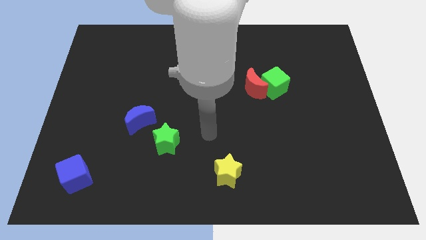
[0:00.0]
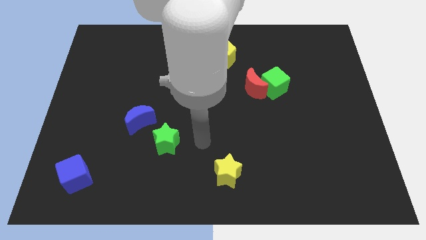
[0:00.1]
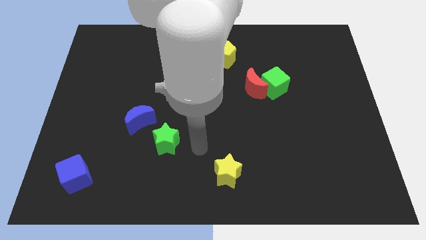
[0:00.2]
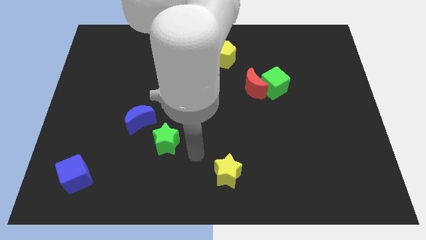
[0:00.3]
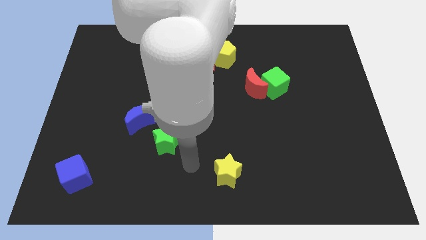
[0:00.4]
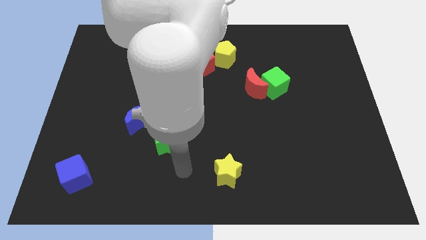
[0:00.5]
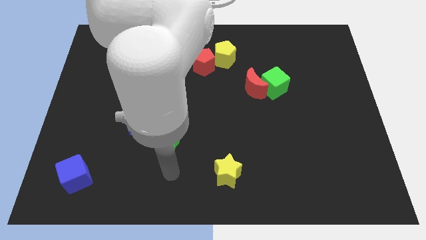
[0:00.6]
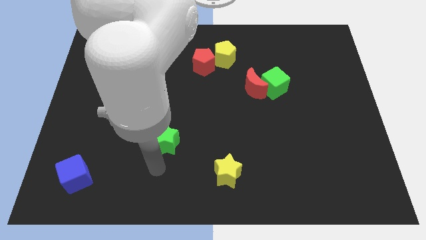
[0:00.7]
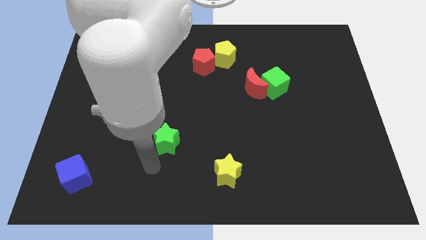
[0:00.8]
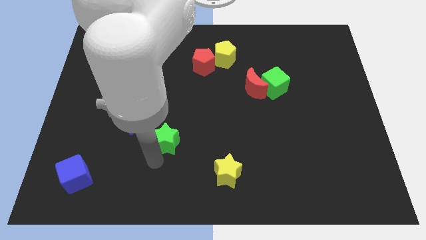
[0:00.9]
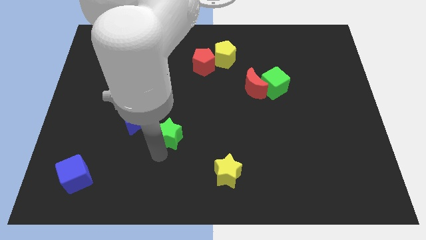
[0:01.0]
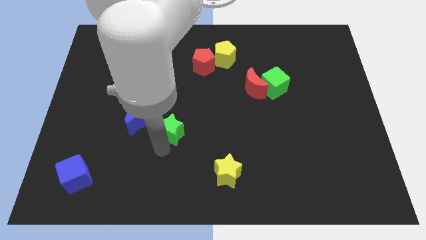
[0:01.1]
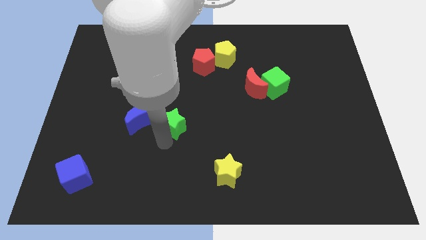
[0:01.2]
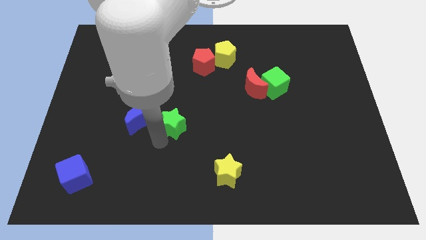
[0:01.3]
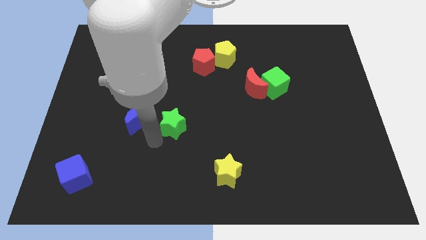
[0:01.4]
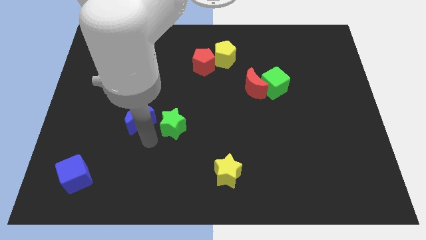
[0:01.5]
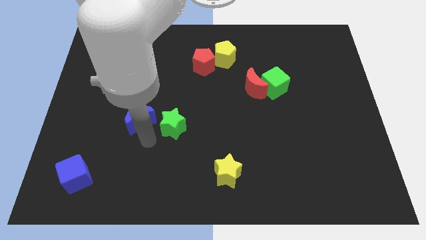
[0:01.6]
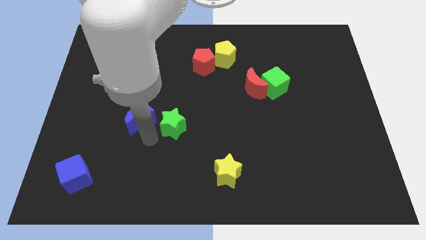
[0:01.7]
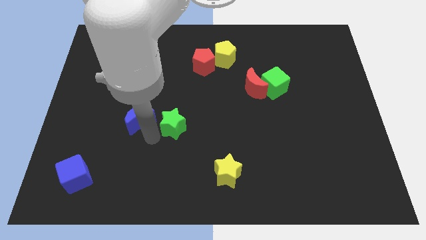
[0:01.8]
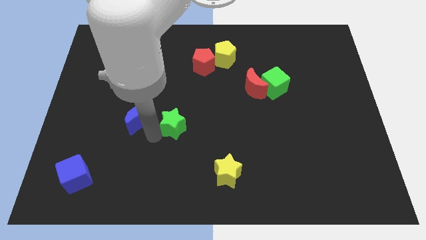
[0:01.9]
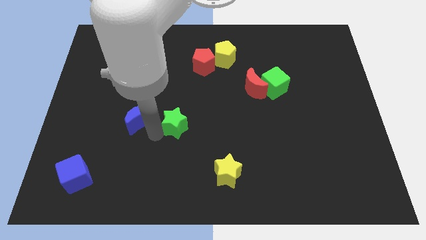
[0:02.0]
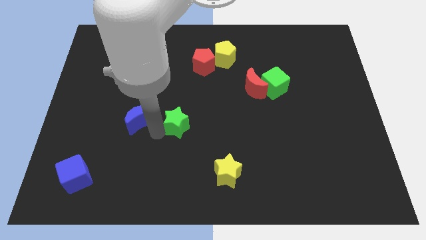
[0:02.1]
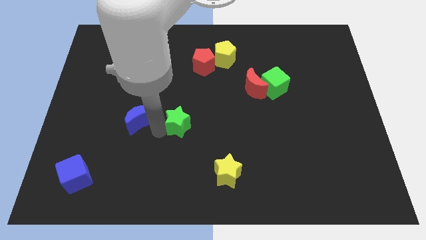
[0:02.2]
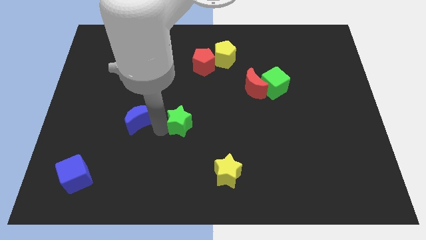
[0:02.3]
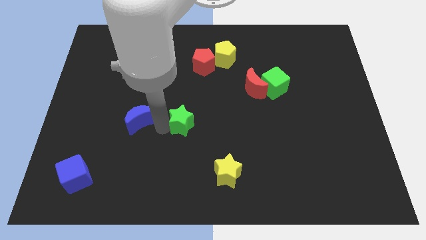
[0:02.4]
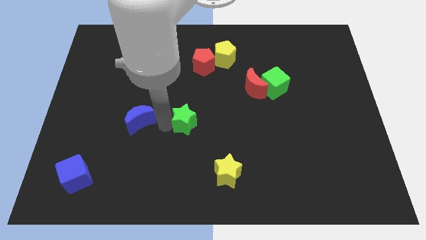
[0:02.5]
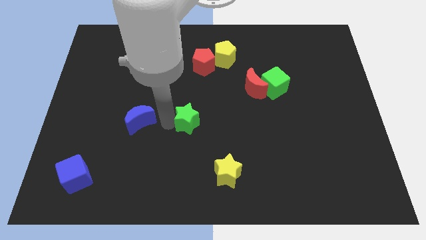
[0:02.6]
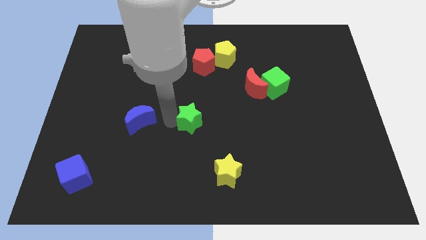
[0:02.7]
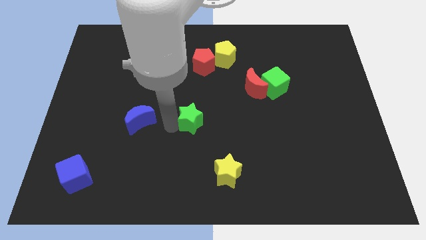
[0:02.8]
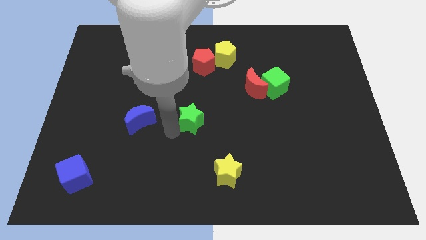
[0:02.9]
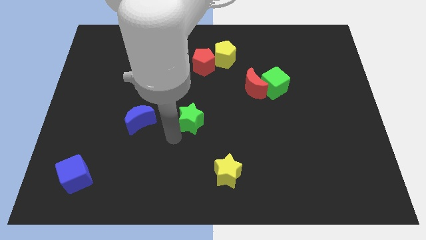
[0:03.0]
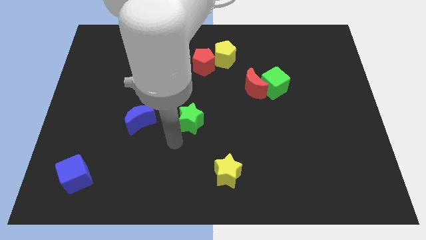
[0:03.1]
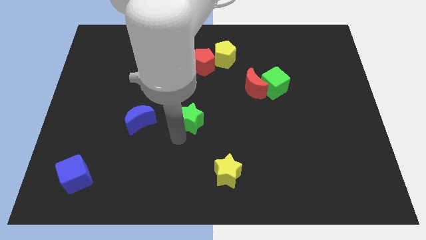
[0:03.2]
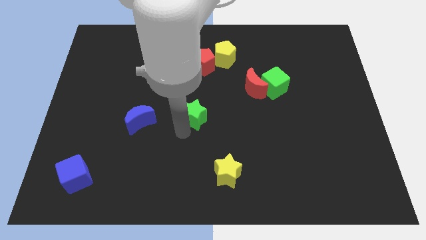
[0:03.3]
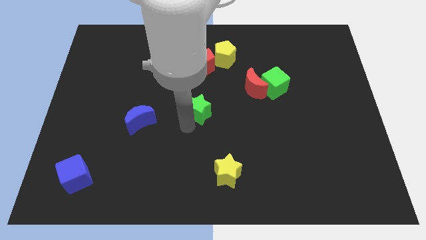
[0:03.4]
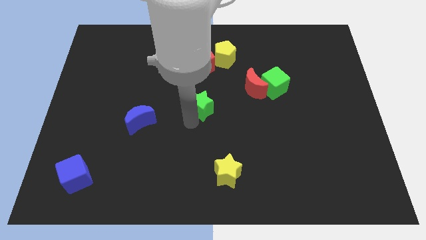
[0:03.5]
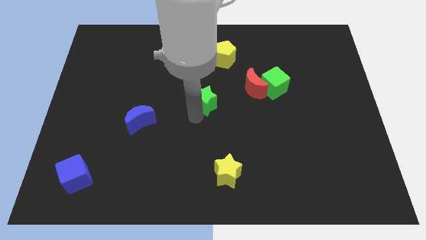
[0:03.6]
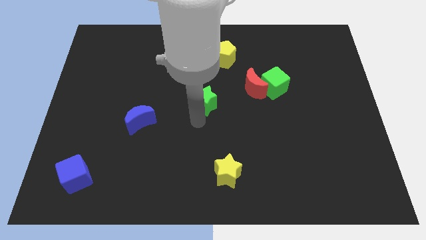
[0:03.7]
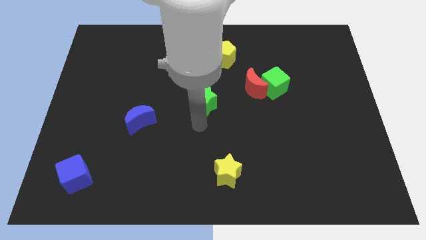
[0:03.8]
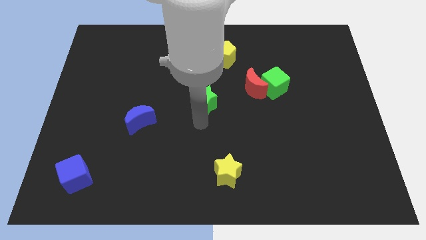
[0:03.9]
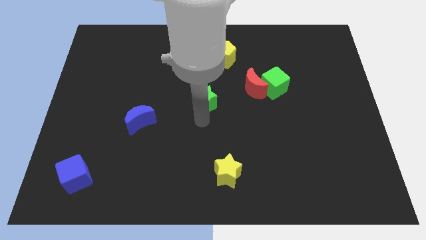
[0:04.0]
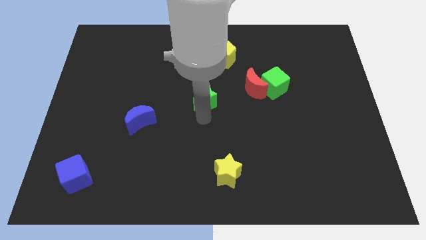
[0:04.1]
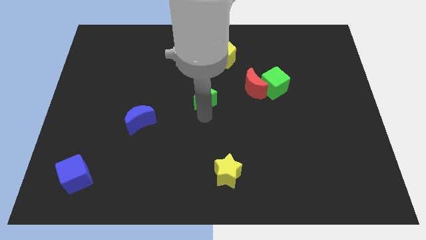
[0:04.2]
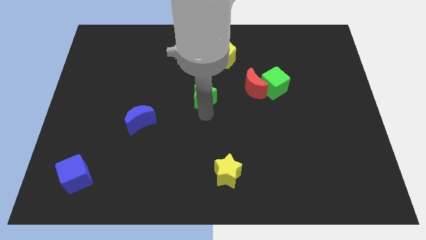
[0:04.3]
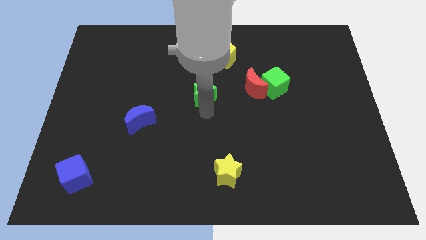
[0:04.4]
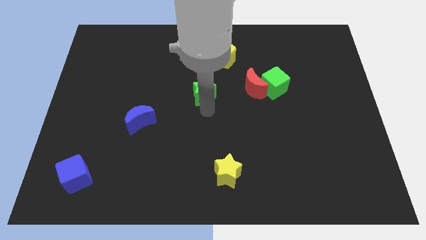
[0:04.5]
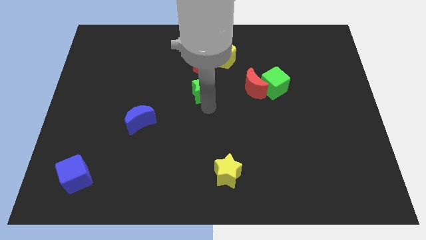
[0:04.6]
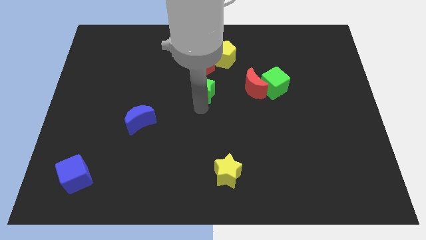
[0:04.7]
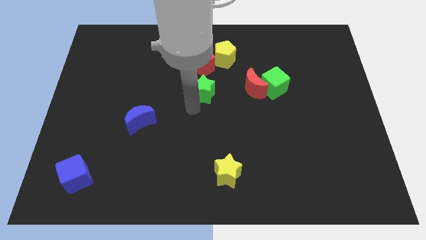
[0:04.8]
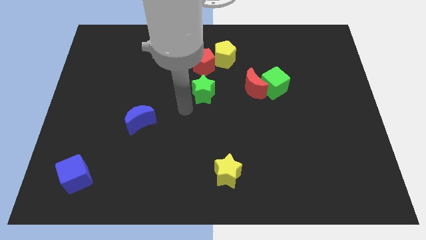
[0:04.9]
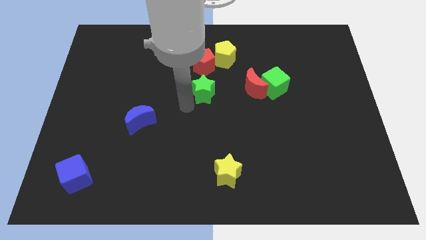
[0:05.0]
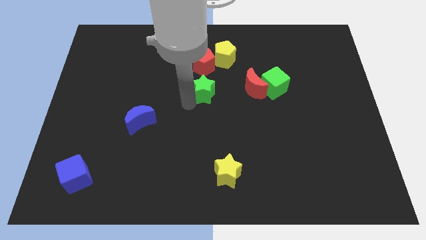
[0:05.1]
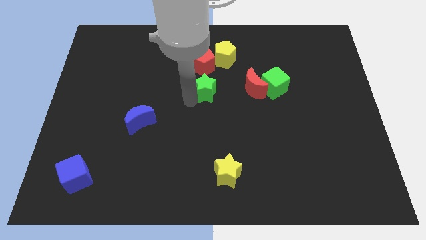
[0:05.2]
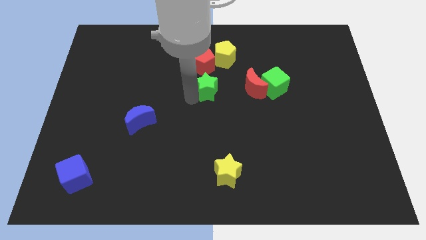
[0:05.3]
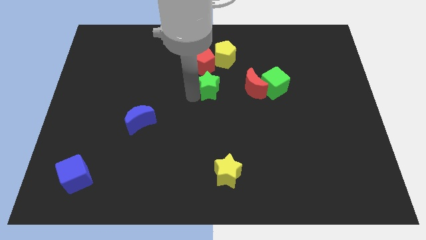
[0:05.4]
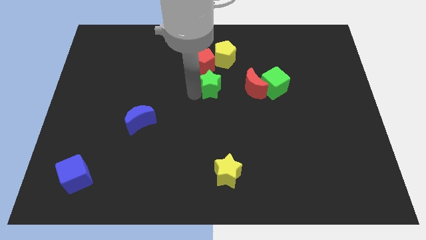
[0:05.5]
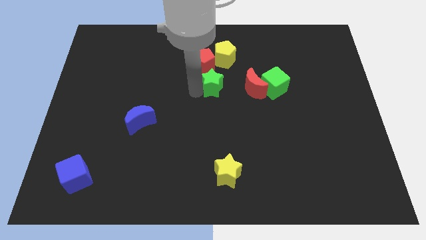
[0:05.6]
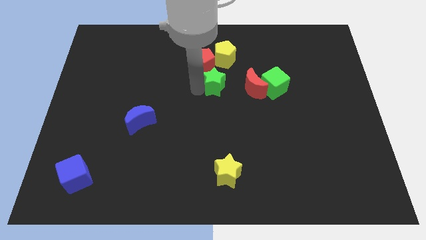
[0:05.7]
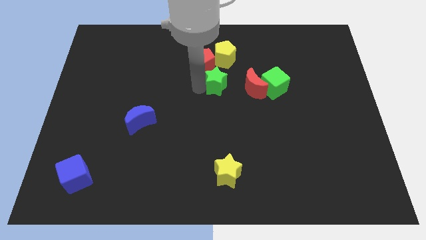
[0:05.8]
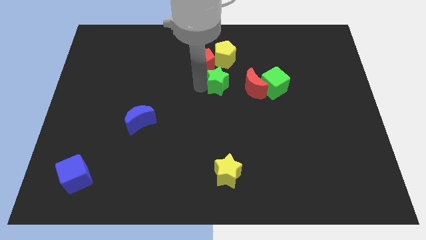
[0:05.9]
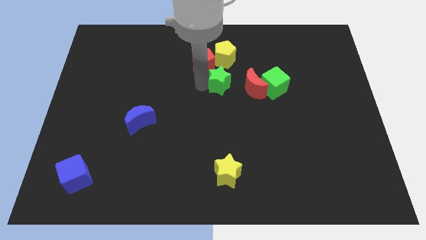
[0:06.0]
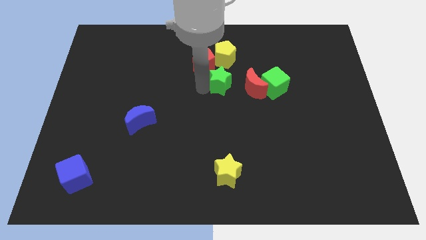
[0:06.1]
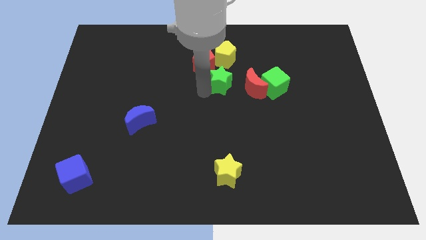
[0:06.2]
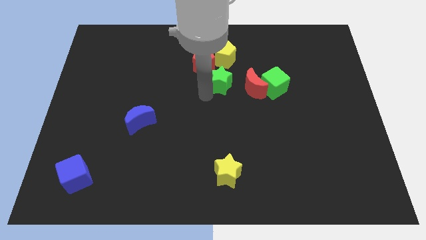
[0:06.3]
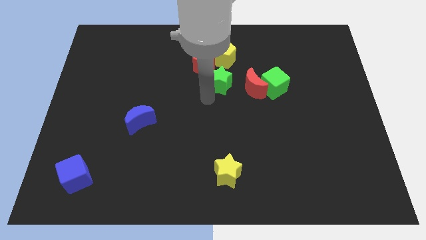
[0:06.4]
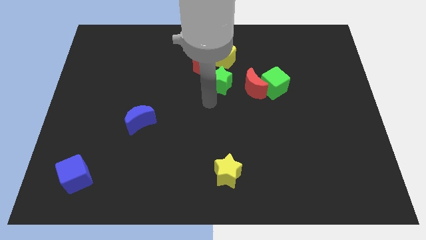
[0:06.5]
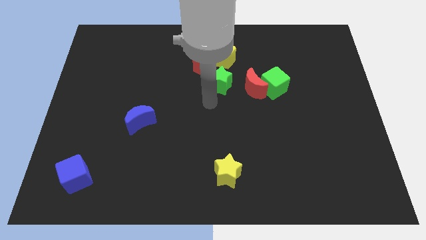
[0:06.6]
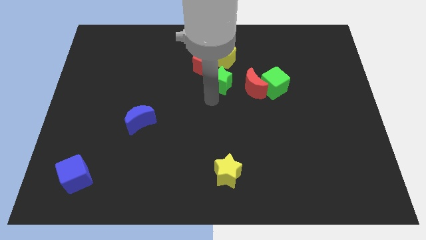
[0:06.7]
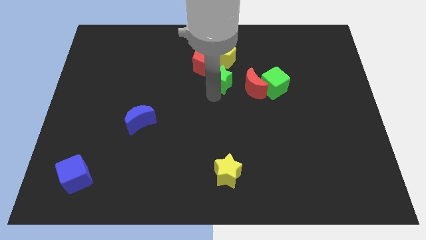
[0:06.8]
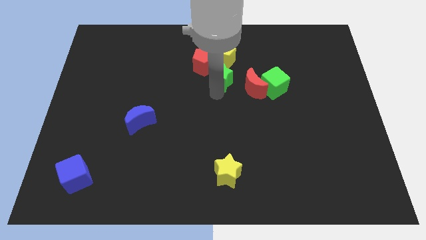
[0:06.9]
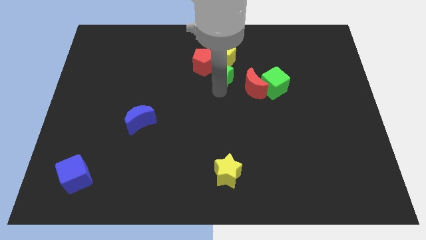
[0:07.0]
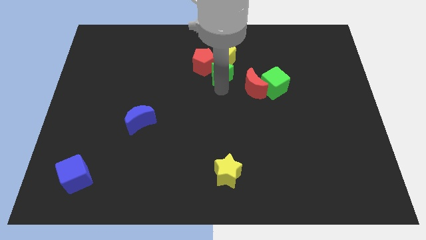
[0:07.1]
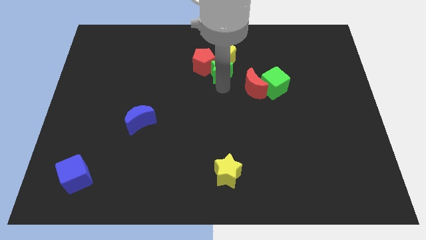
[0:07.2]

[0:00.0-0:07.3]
move the green star towards the yellow pentagon

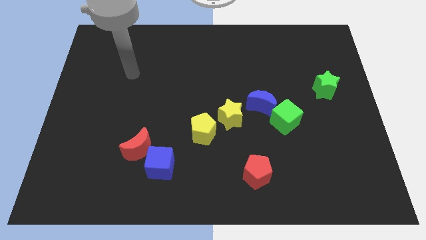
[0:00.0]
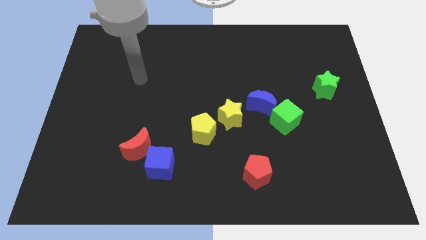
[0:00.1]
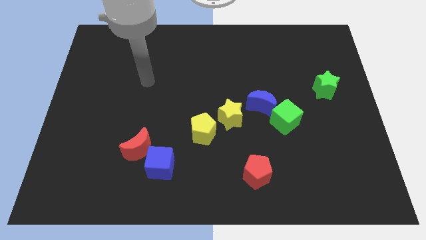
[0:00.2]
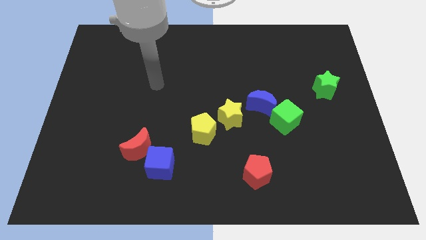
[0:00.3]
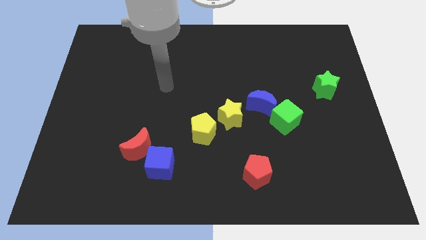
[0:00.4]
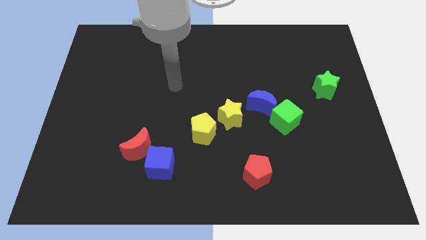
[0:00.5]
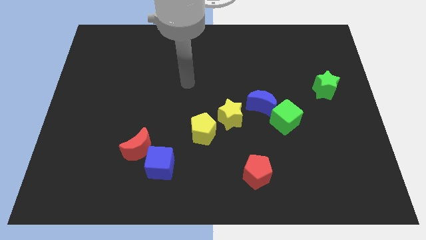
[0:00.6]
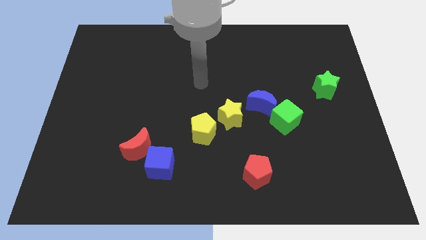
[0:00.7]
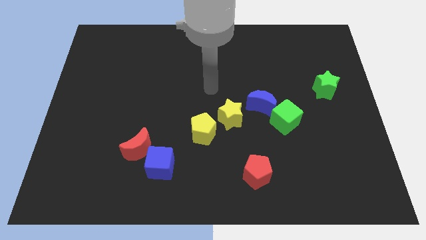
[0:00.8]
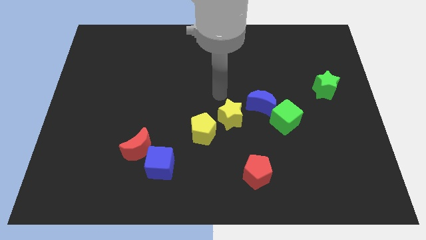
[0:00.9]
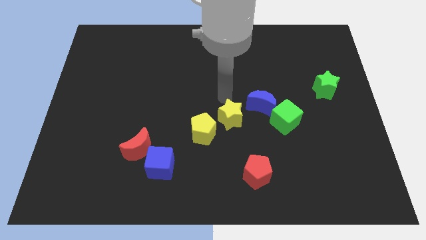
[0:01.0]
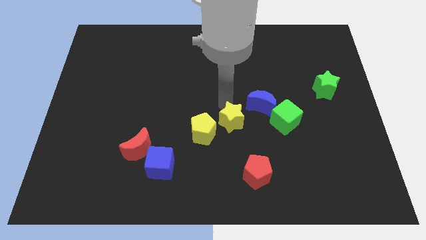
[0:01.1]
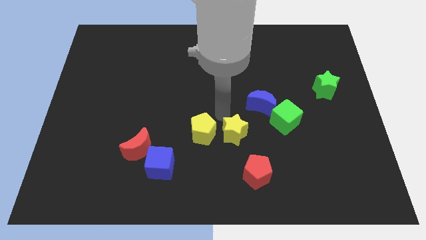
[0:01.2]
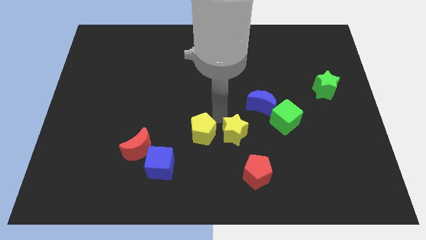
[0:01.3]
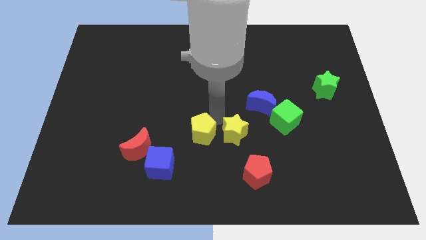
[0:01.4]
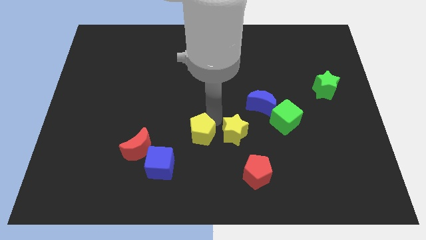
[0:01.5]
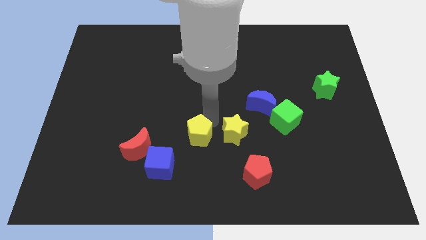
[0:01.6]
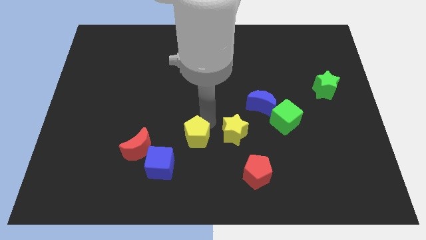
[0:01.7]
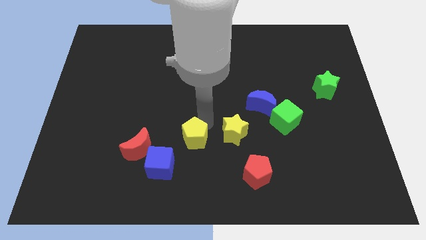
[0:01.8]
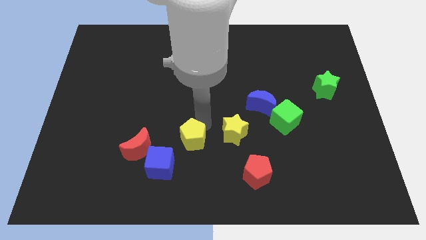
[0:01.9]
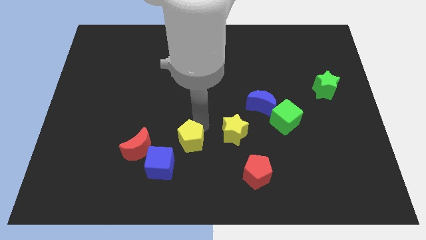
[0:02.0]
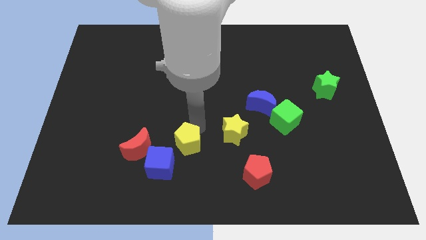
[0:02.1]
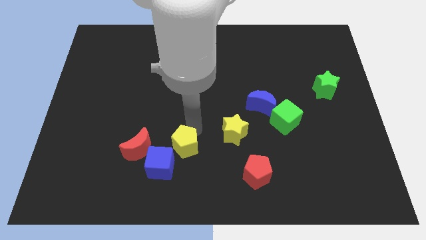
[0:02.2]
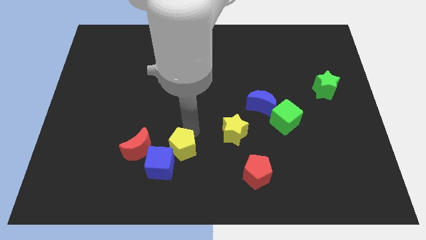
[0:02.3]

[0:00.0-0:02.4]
push the yellow pentagon close to the blue cube
